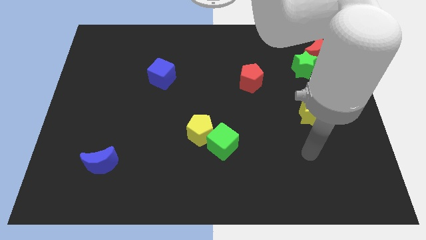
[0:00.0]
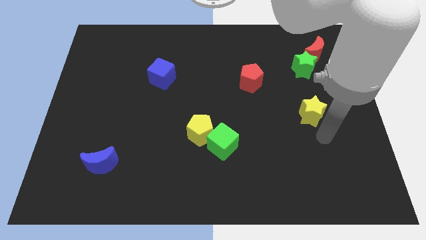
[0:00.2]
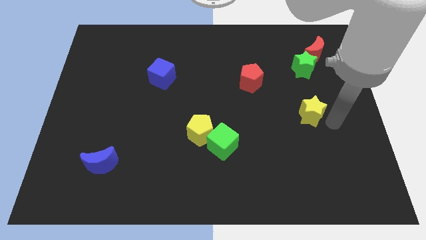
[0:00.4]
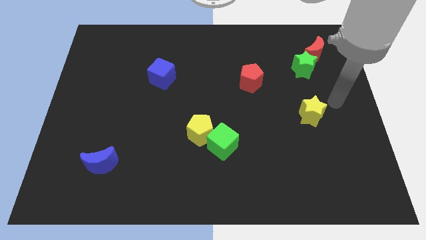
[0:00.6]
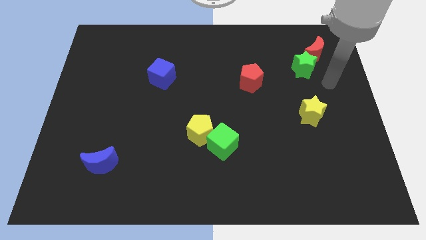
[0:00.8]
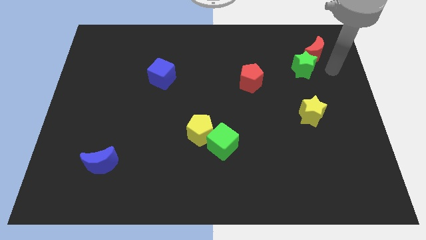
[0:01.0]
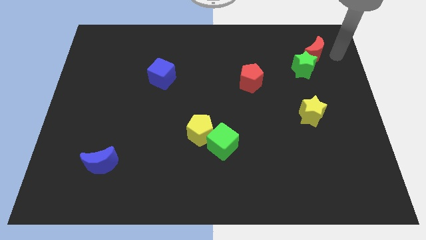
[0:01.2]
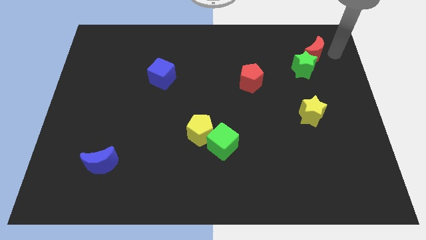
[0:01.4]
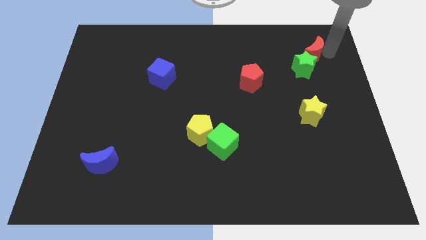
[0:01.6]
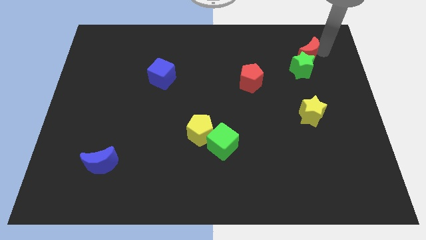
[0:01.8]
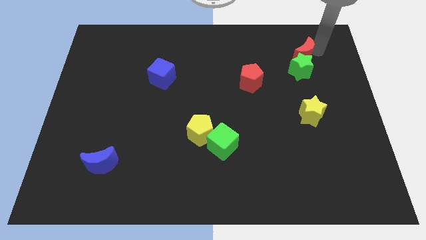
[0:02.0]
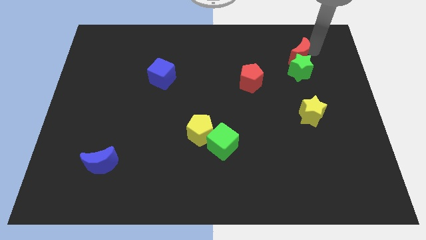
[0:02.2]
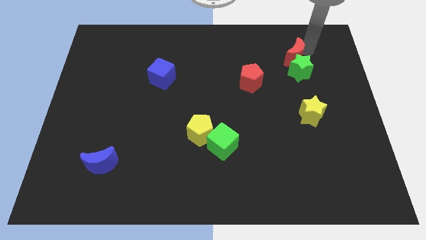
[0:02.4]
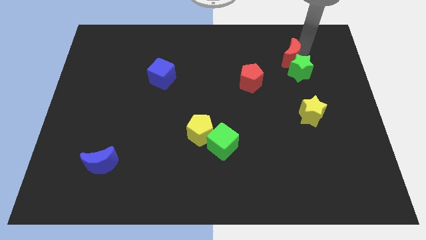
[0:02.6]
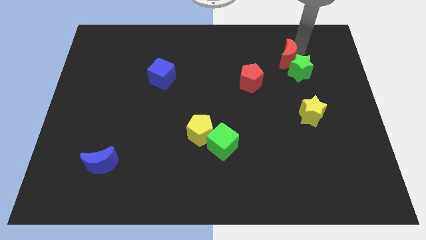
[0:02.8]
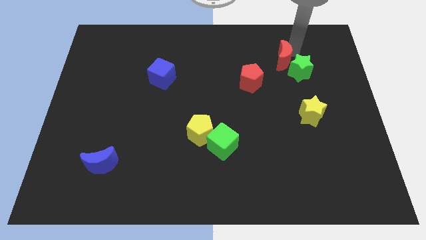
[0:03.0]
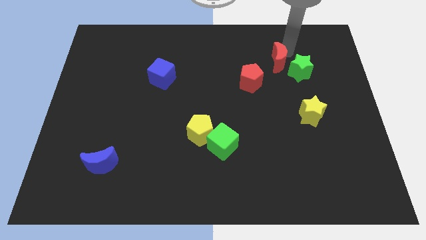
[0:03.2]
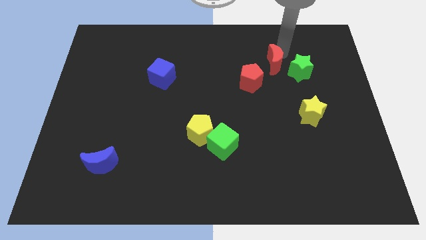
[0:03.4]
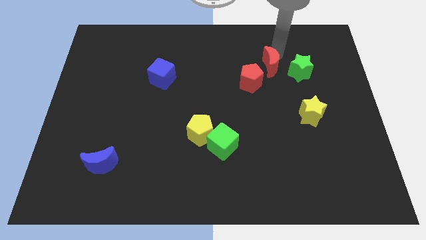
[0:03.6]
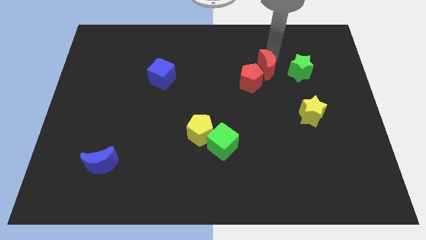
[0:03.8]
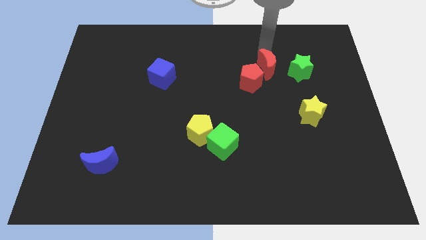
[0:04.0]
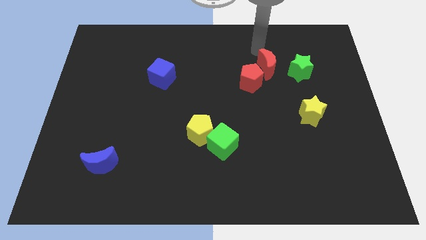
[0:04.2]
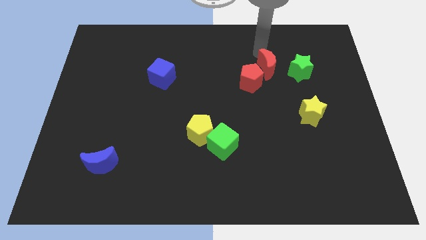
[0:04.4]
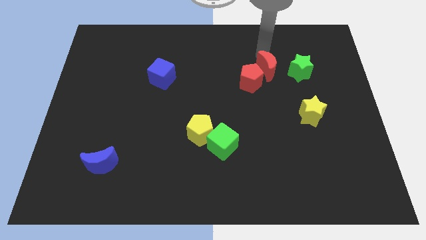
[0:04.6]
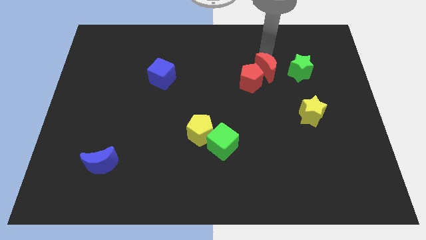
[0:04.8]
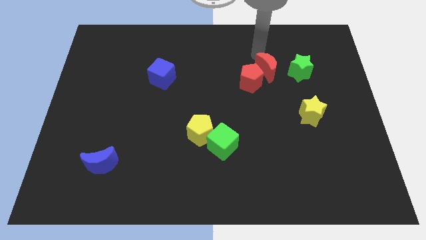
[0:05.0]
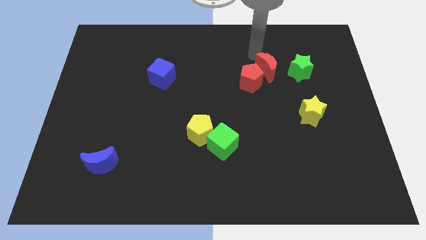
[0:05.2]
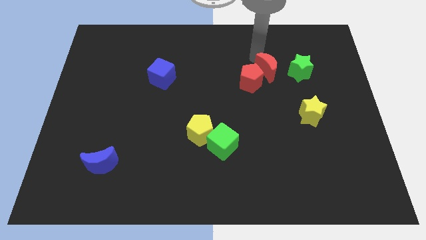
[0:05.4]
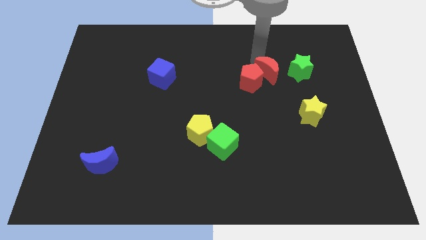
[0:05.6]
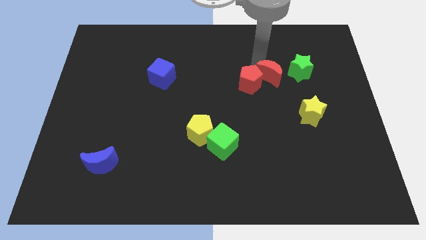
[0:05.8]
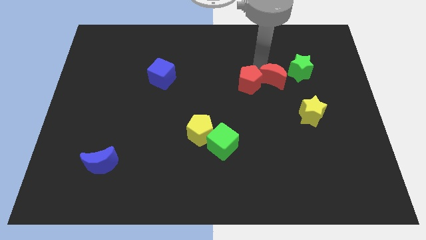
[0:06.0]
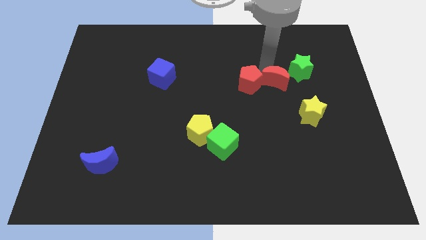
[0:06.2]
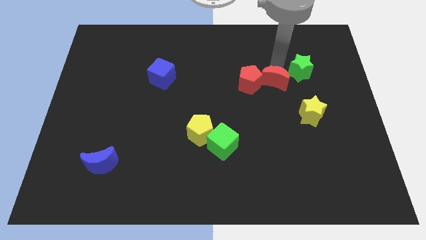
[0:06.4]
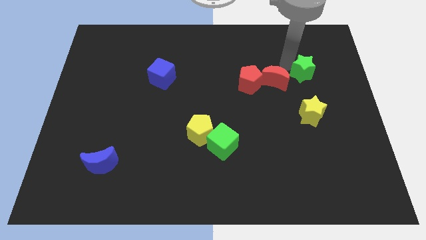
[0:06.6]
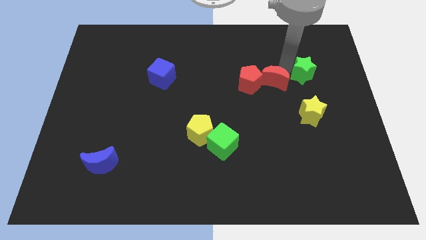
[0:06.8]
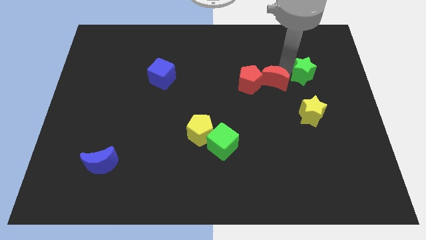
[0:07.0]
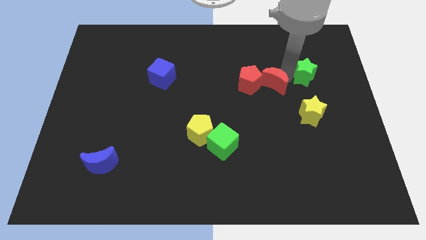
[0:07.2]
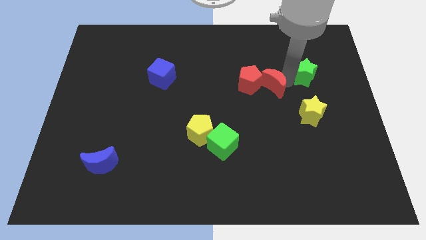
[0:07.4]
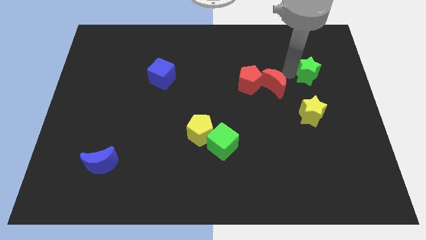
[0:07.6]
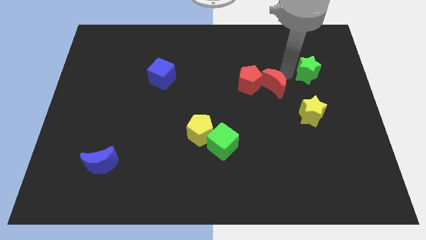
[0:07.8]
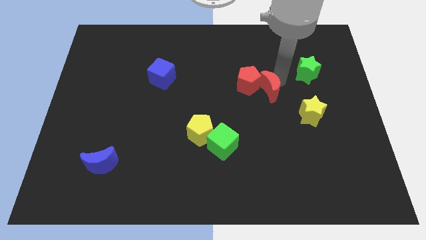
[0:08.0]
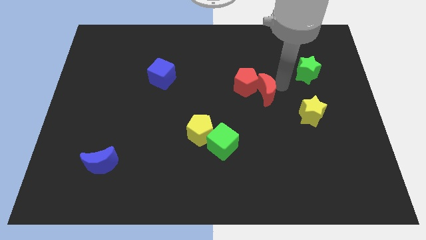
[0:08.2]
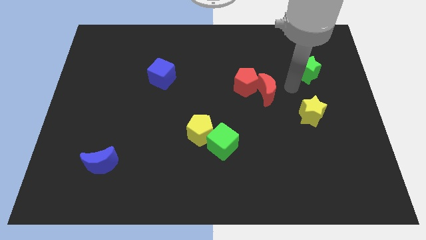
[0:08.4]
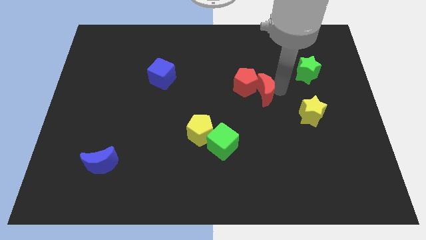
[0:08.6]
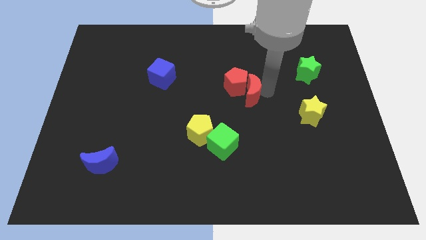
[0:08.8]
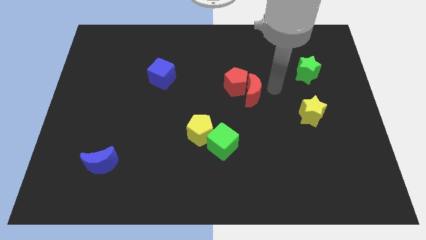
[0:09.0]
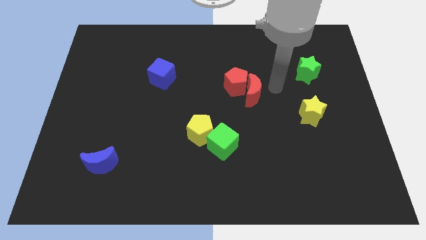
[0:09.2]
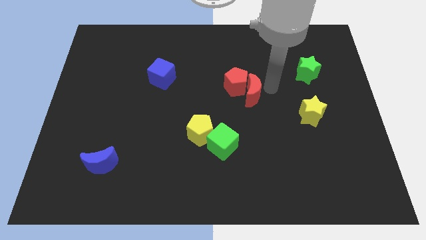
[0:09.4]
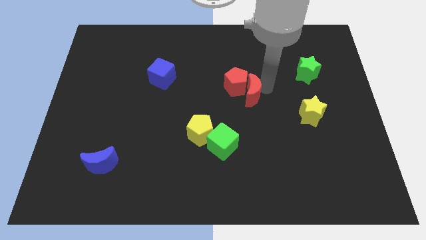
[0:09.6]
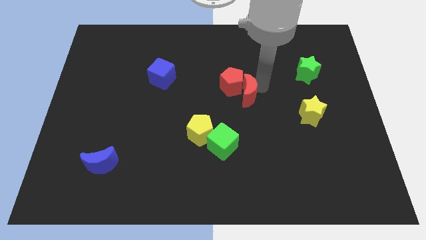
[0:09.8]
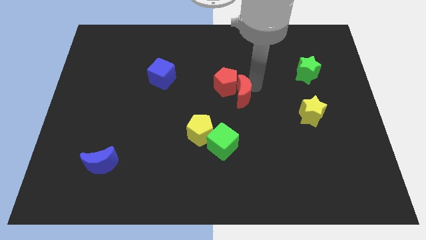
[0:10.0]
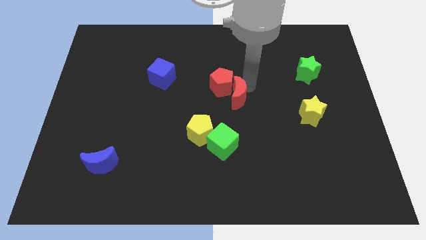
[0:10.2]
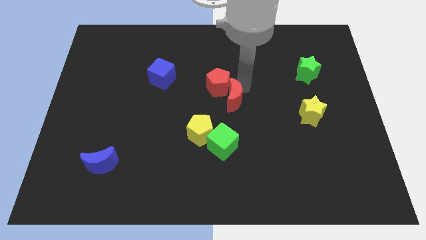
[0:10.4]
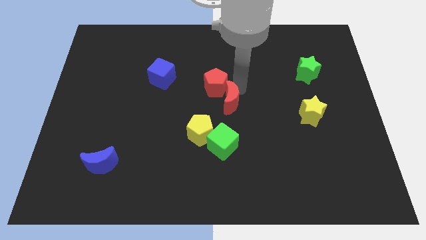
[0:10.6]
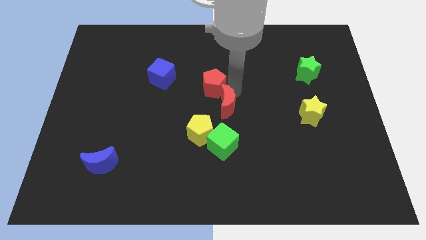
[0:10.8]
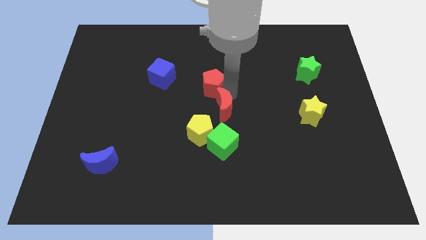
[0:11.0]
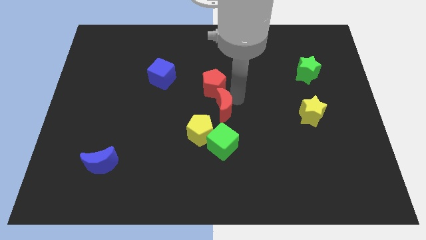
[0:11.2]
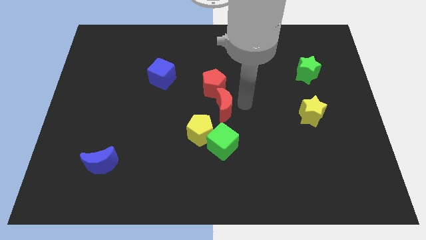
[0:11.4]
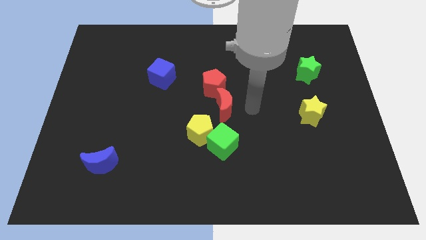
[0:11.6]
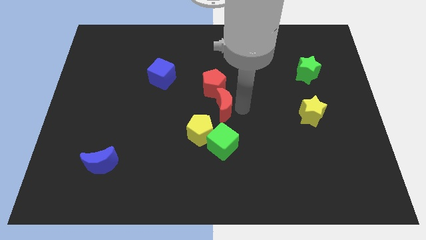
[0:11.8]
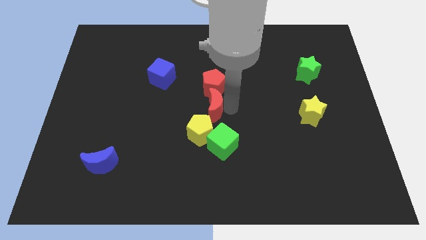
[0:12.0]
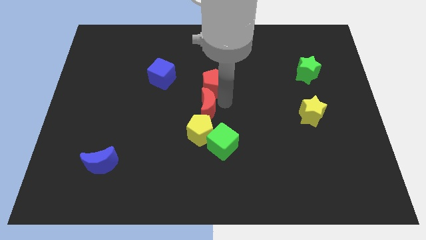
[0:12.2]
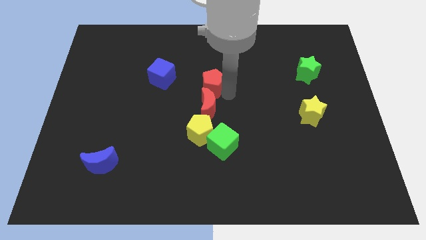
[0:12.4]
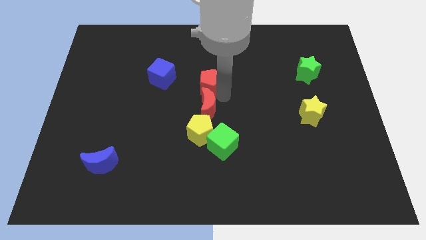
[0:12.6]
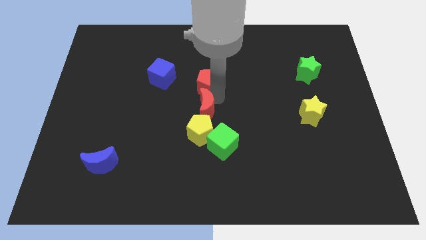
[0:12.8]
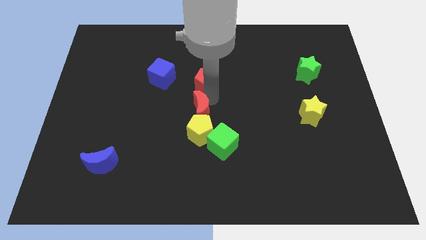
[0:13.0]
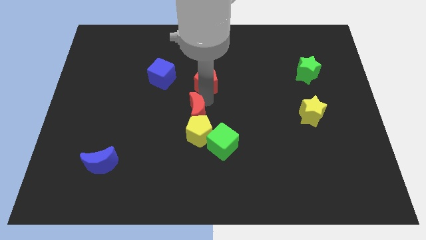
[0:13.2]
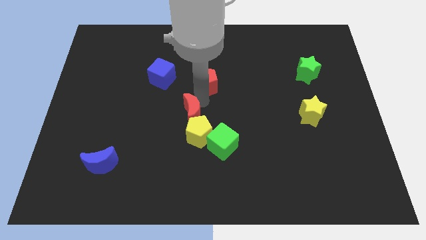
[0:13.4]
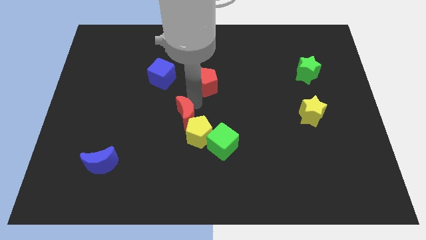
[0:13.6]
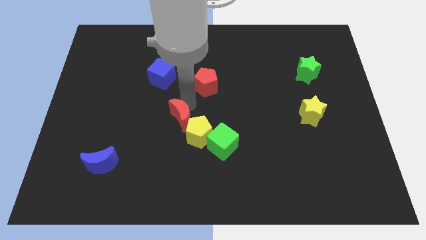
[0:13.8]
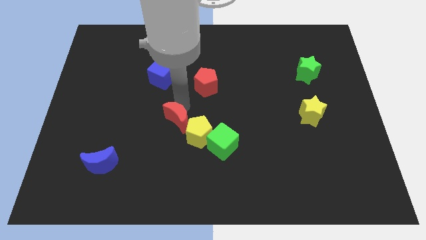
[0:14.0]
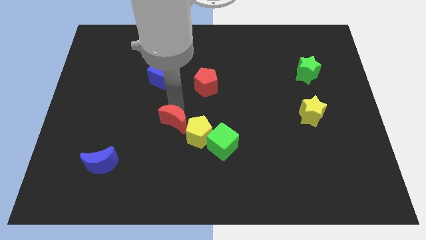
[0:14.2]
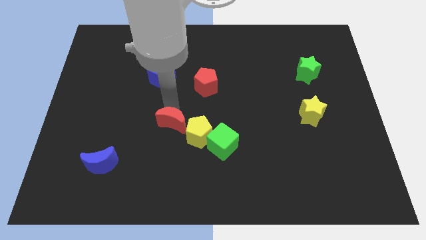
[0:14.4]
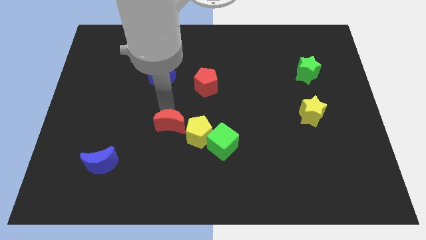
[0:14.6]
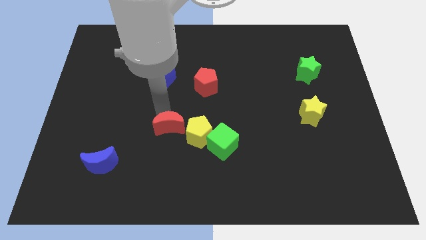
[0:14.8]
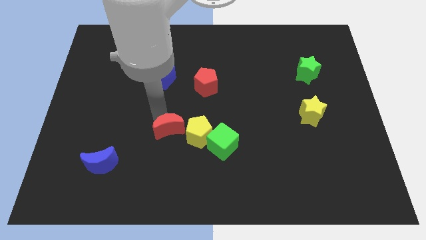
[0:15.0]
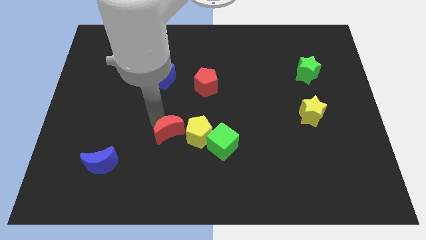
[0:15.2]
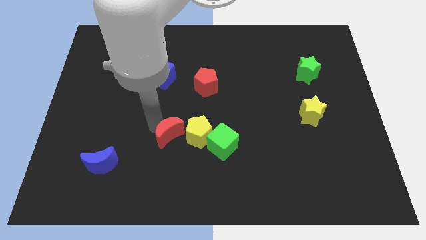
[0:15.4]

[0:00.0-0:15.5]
slide the red moon diagonally down and to the left of the yellow pentagon

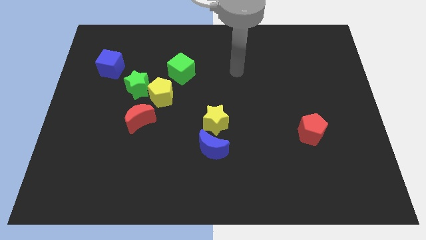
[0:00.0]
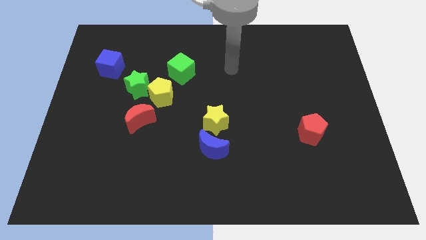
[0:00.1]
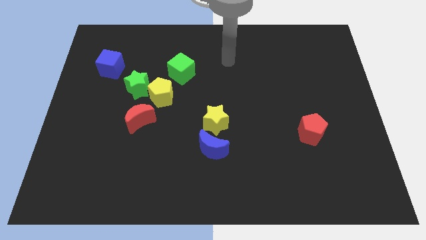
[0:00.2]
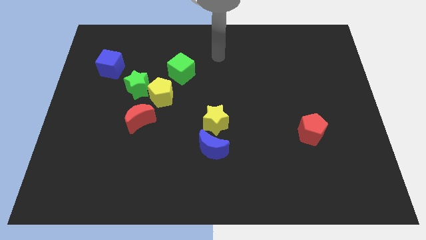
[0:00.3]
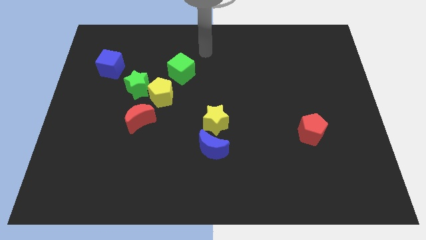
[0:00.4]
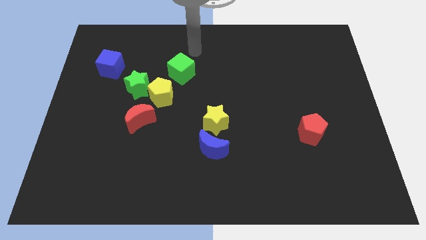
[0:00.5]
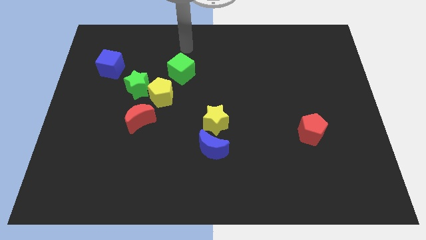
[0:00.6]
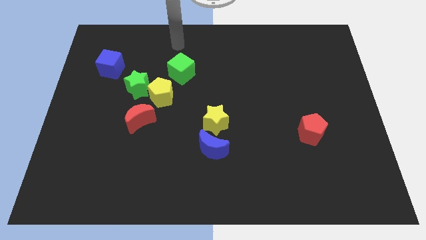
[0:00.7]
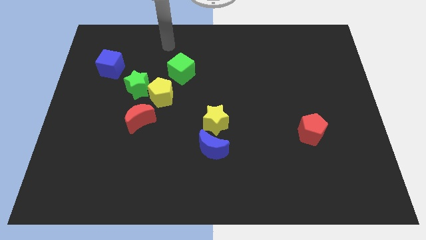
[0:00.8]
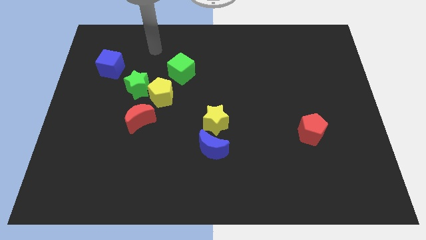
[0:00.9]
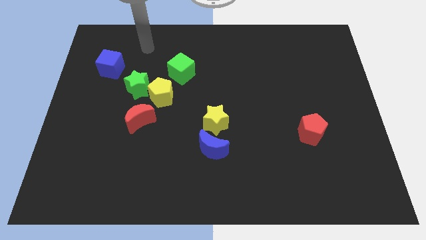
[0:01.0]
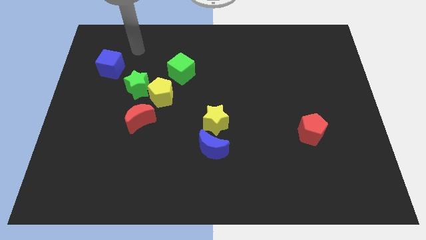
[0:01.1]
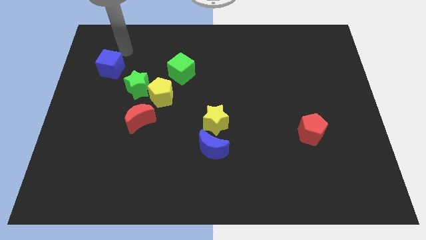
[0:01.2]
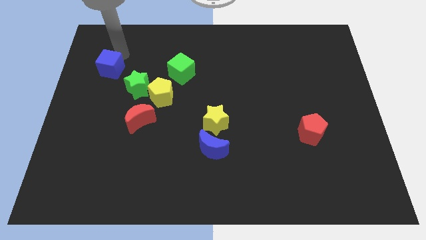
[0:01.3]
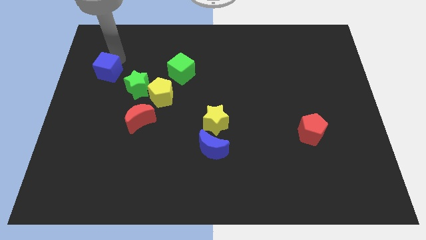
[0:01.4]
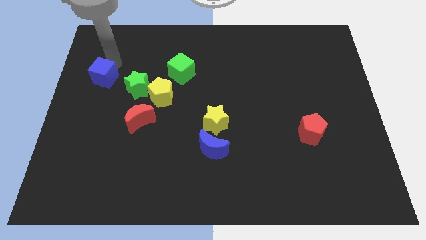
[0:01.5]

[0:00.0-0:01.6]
move the blue cube left of the green star
